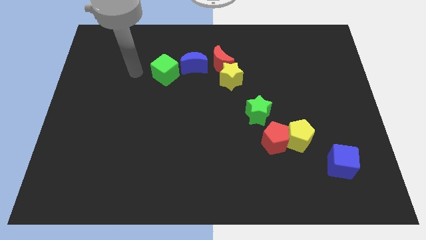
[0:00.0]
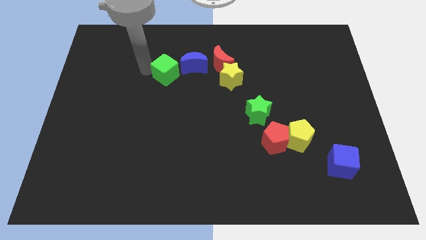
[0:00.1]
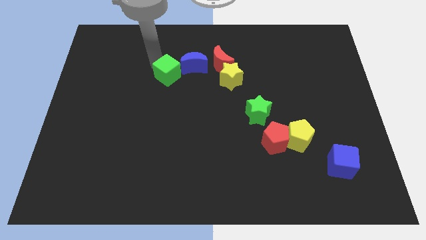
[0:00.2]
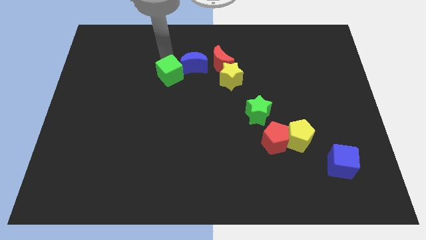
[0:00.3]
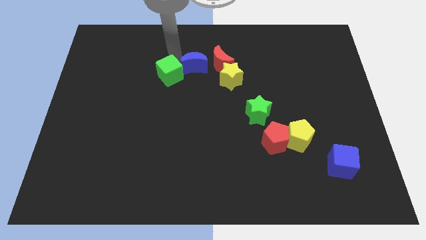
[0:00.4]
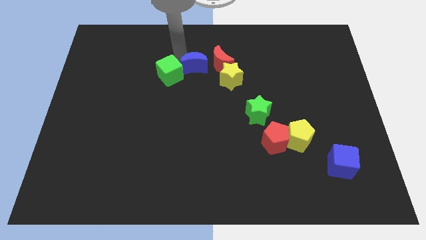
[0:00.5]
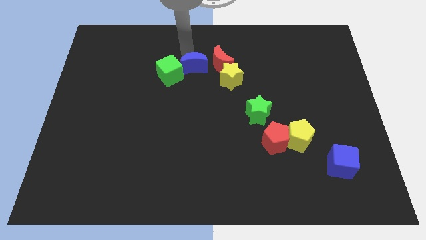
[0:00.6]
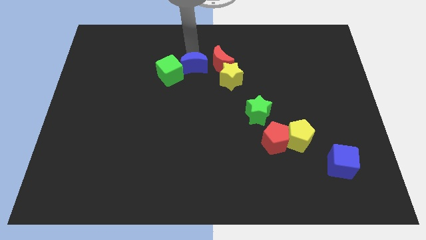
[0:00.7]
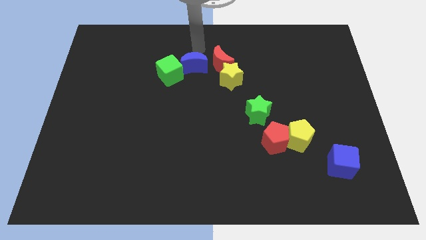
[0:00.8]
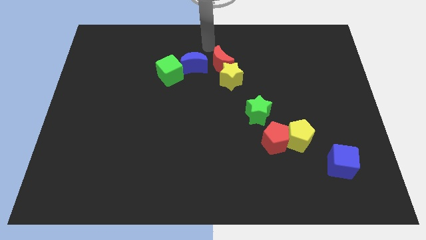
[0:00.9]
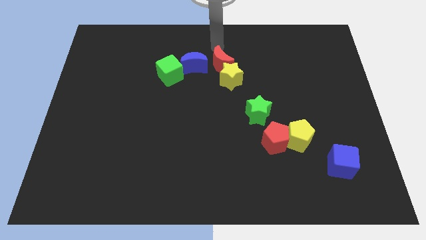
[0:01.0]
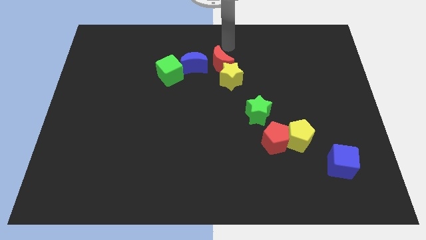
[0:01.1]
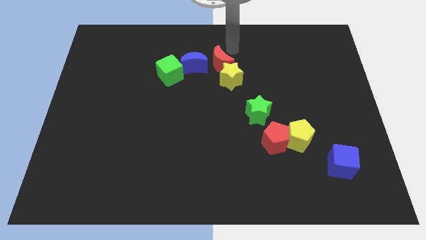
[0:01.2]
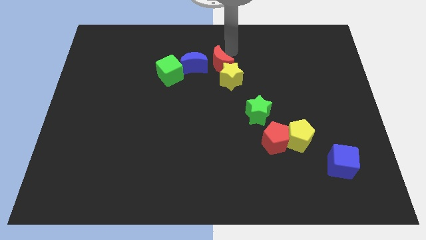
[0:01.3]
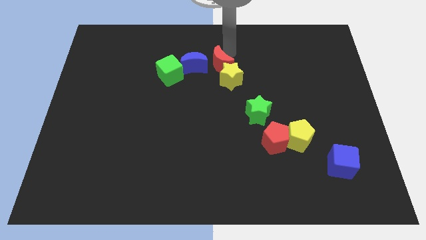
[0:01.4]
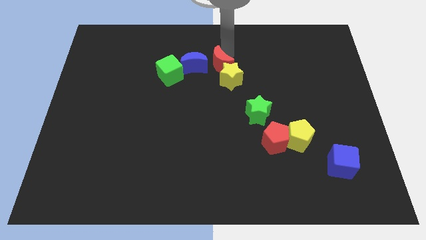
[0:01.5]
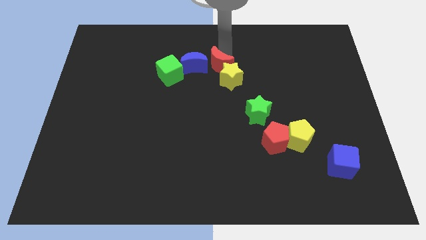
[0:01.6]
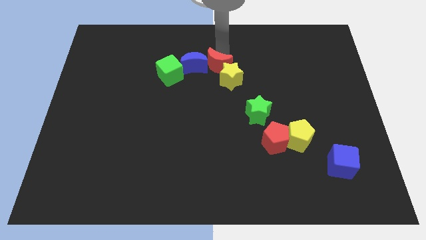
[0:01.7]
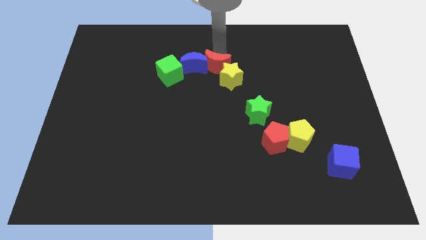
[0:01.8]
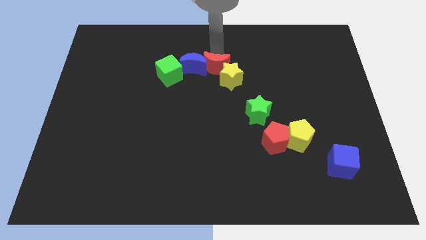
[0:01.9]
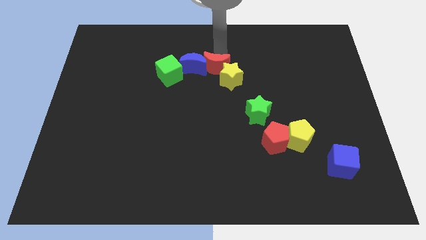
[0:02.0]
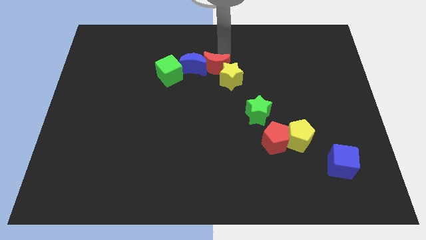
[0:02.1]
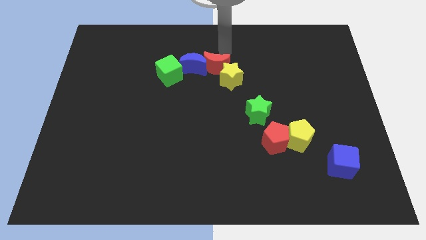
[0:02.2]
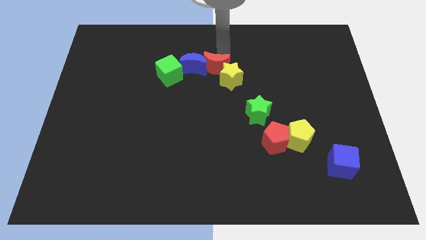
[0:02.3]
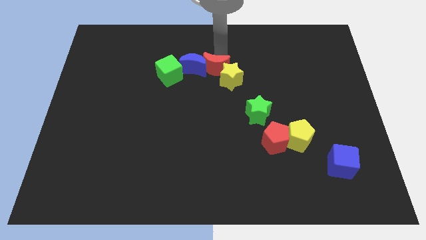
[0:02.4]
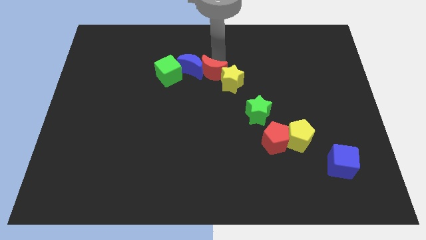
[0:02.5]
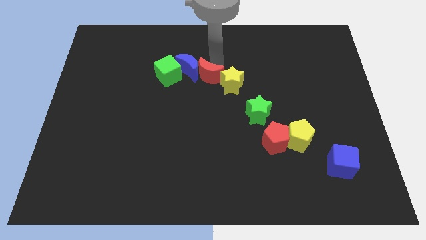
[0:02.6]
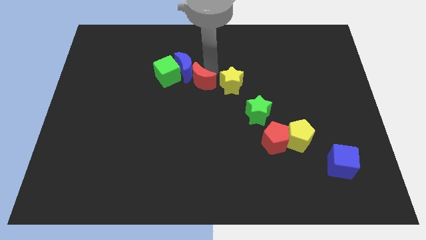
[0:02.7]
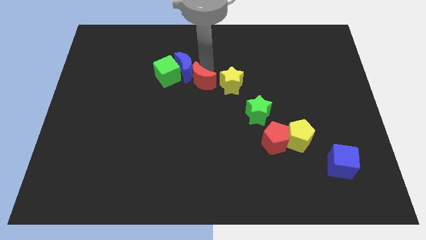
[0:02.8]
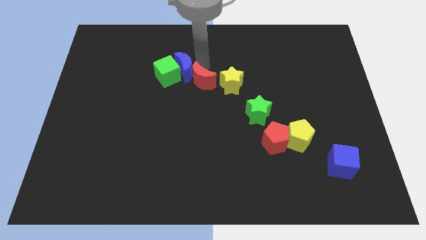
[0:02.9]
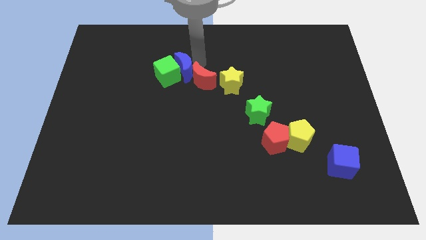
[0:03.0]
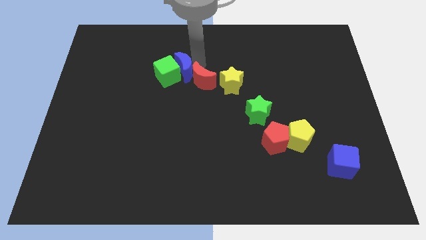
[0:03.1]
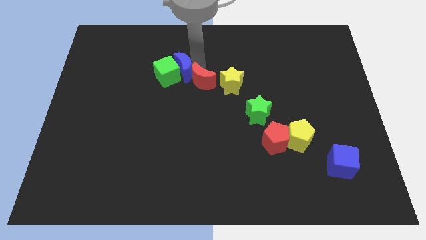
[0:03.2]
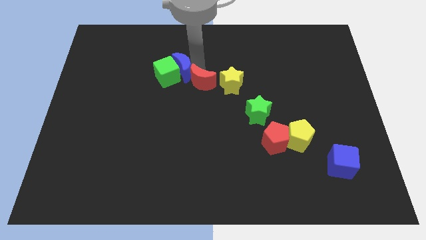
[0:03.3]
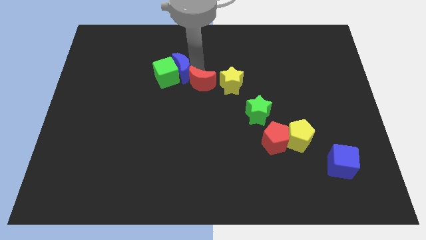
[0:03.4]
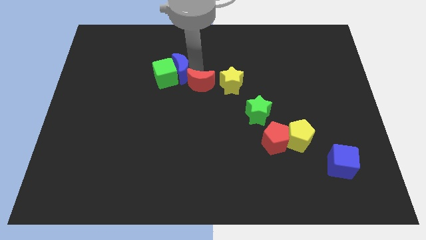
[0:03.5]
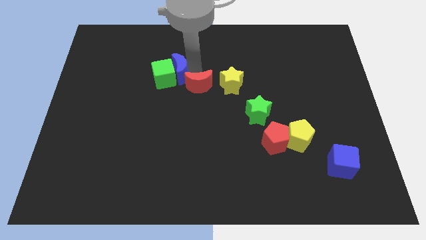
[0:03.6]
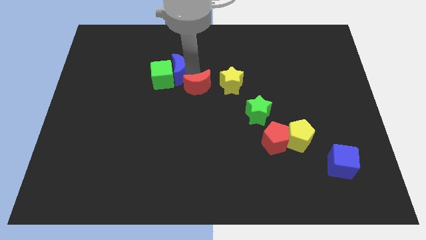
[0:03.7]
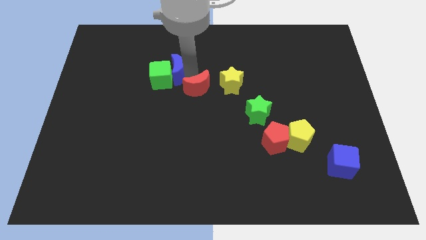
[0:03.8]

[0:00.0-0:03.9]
slightly move the red moon downwards

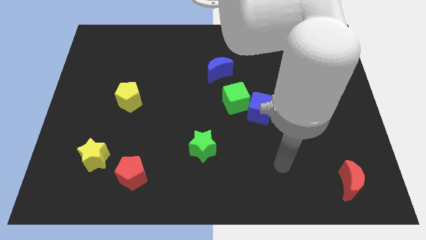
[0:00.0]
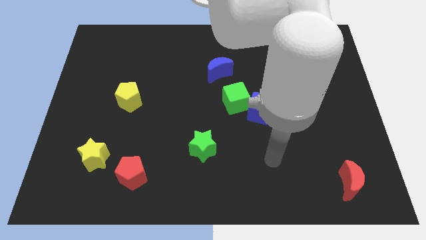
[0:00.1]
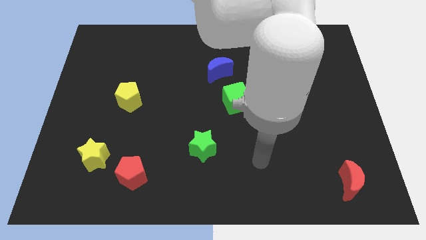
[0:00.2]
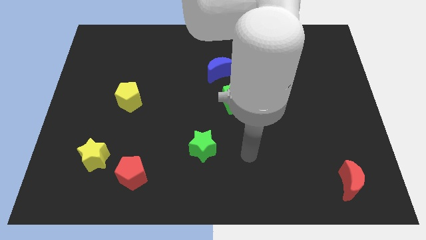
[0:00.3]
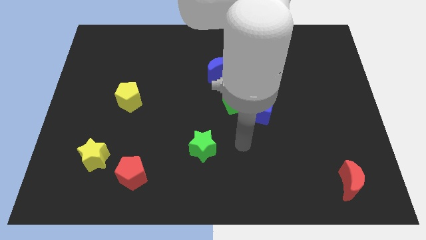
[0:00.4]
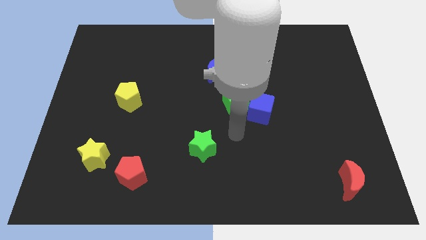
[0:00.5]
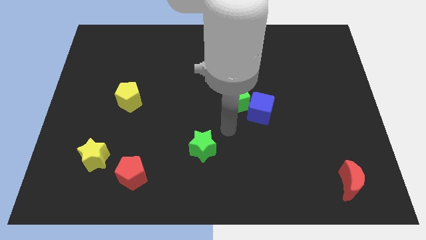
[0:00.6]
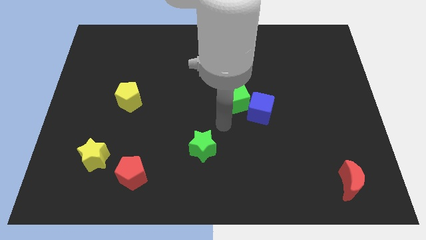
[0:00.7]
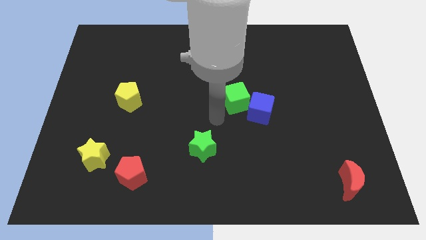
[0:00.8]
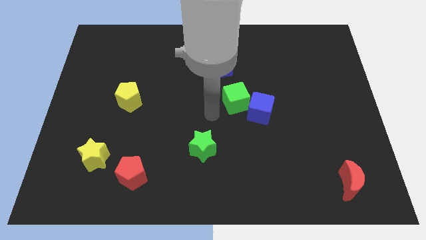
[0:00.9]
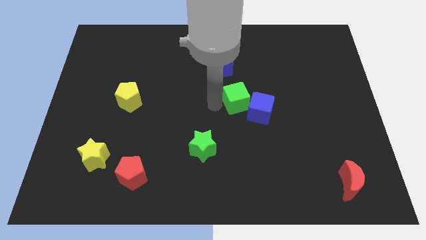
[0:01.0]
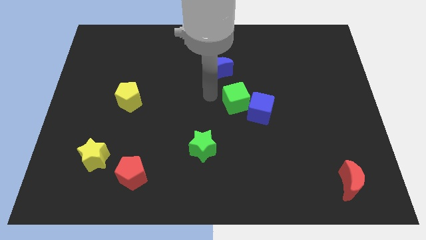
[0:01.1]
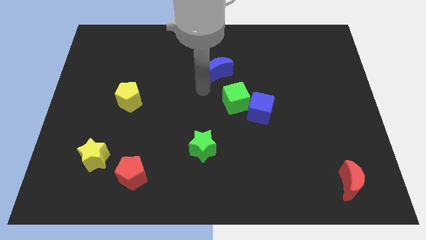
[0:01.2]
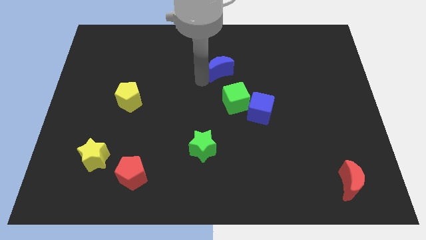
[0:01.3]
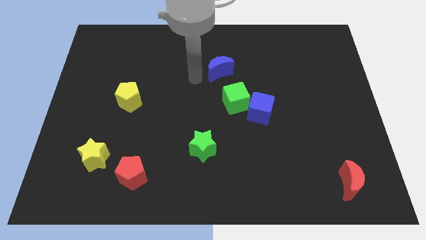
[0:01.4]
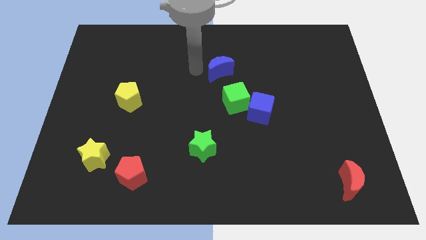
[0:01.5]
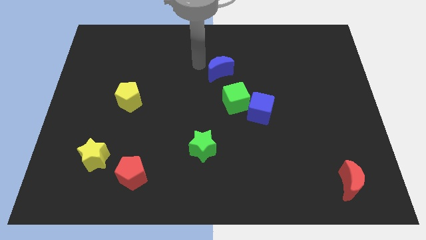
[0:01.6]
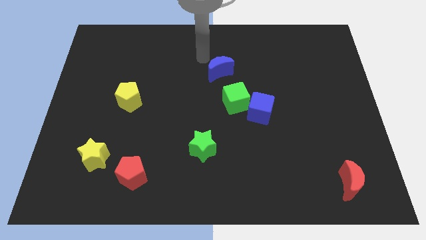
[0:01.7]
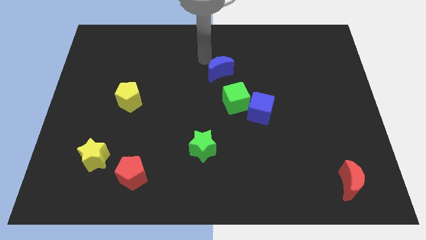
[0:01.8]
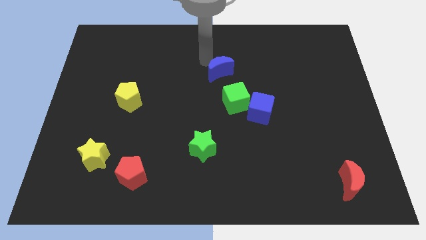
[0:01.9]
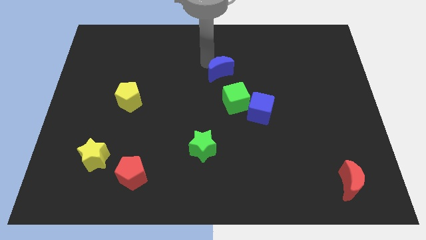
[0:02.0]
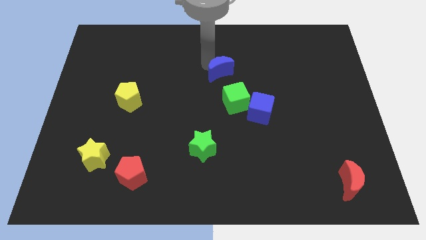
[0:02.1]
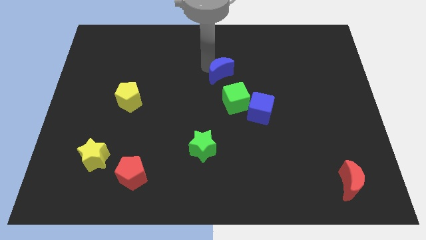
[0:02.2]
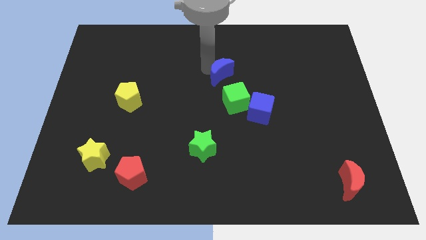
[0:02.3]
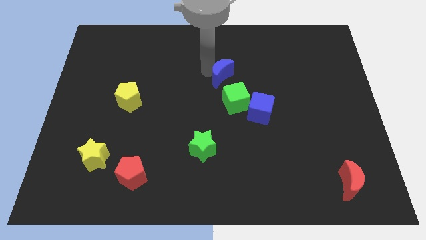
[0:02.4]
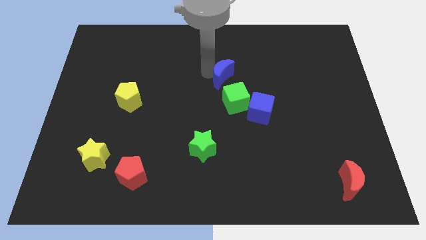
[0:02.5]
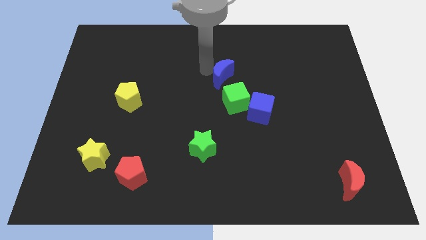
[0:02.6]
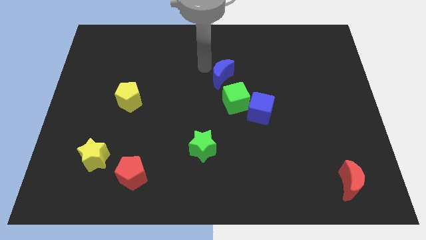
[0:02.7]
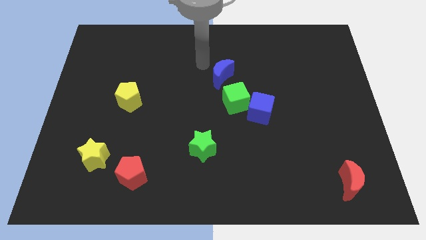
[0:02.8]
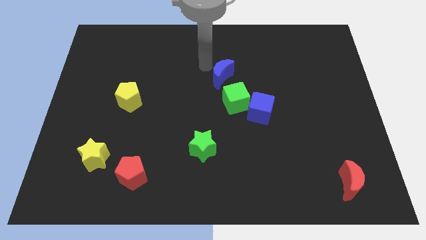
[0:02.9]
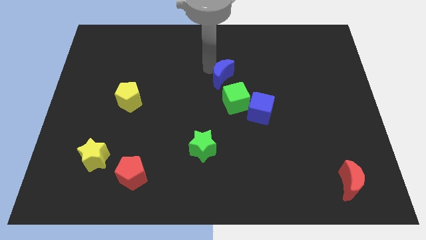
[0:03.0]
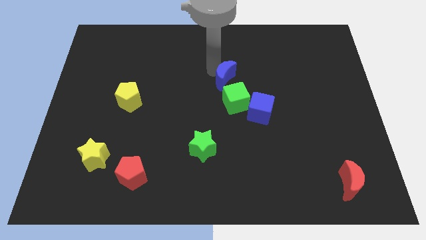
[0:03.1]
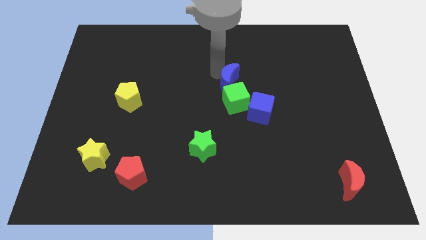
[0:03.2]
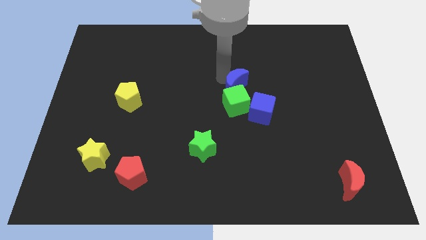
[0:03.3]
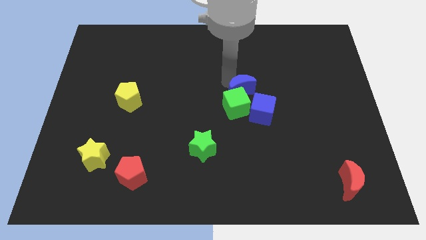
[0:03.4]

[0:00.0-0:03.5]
slightly move the blue moon down and then right

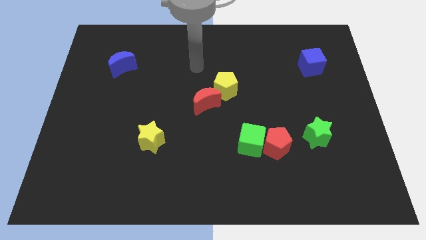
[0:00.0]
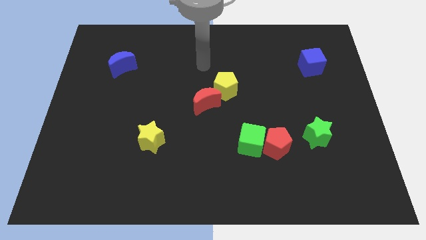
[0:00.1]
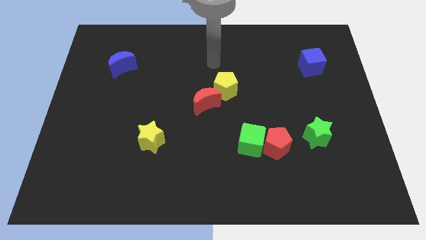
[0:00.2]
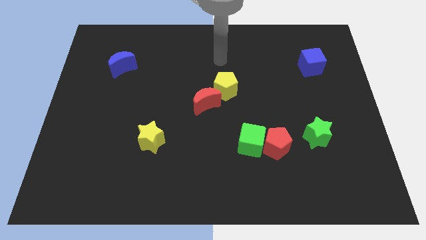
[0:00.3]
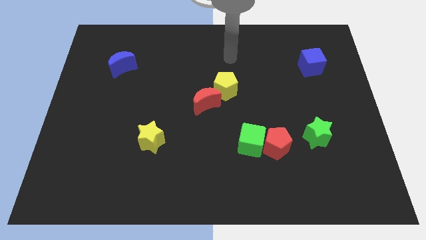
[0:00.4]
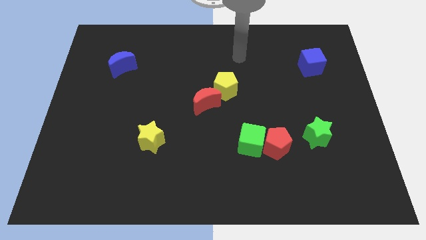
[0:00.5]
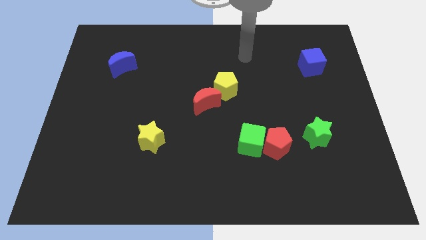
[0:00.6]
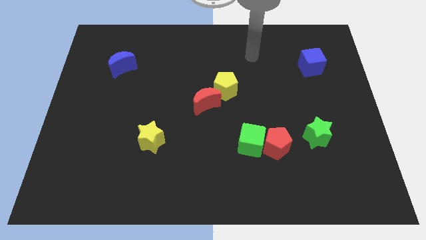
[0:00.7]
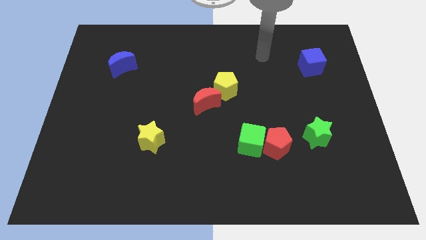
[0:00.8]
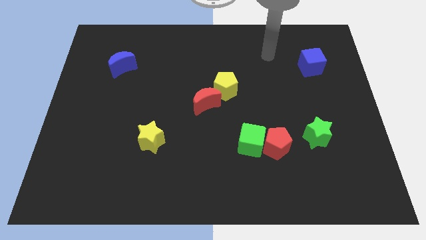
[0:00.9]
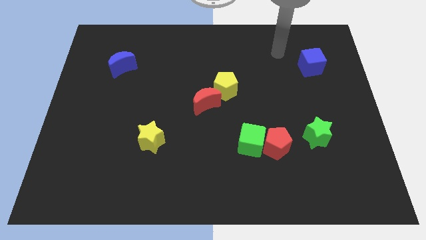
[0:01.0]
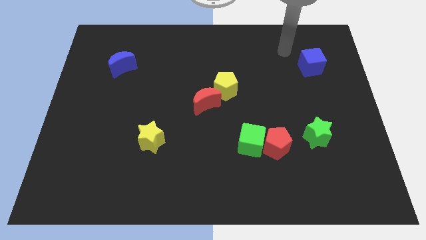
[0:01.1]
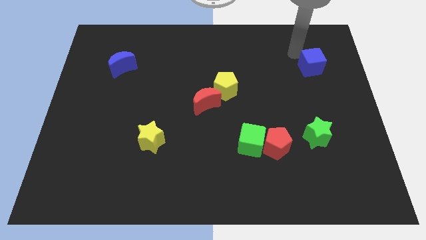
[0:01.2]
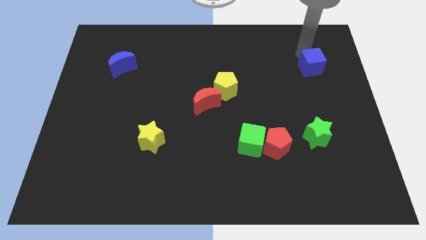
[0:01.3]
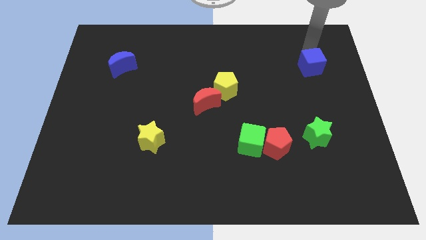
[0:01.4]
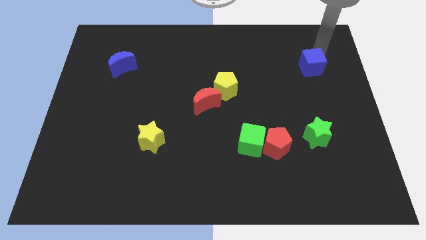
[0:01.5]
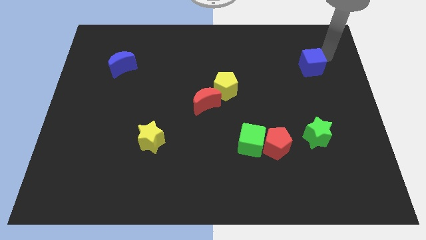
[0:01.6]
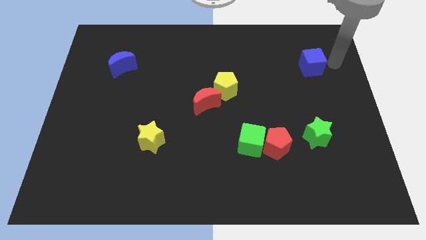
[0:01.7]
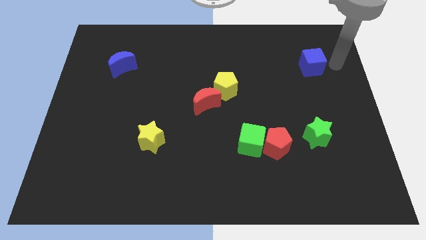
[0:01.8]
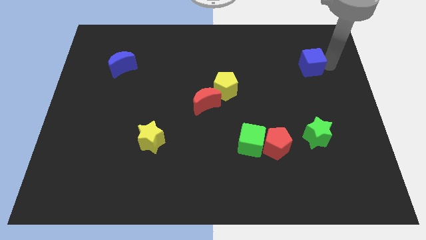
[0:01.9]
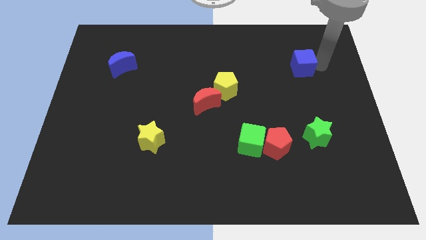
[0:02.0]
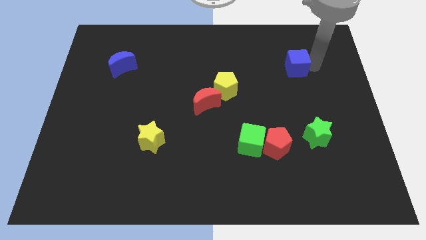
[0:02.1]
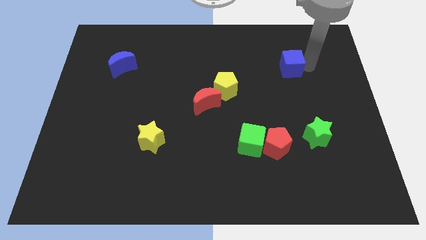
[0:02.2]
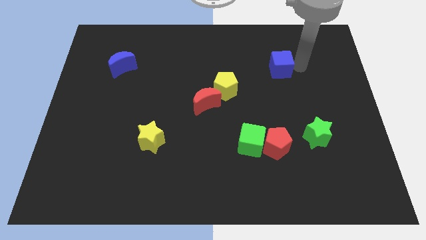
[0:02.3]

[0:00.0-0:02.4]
push the blue cube to the left somewhat
